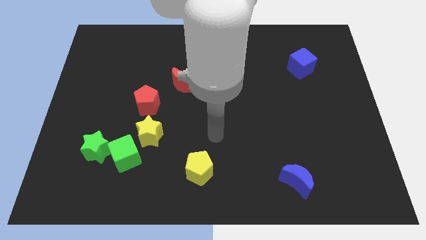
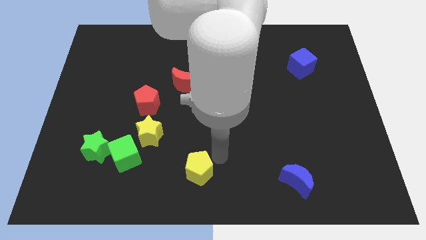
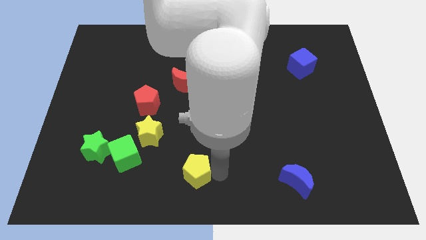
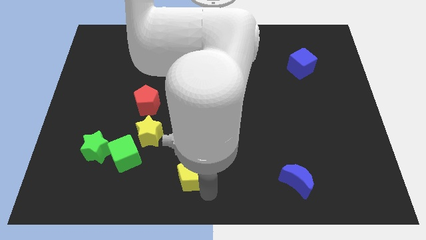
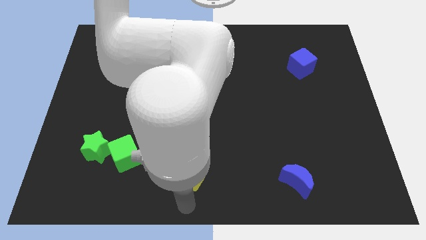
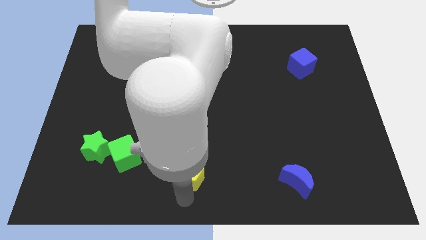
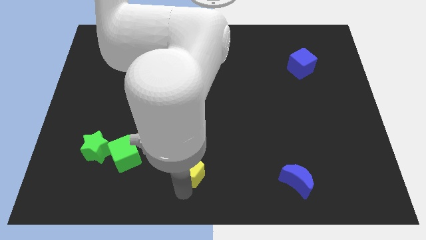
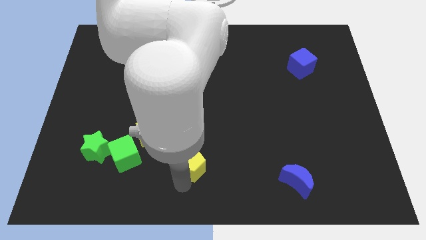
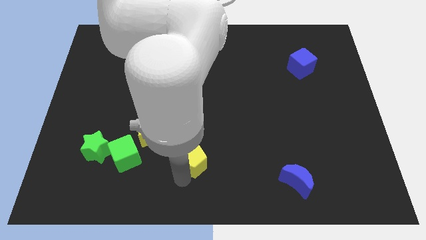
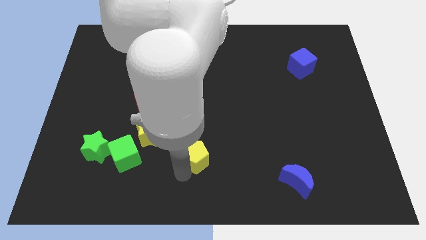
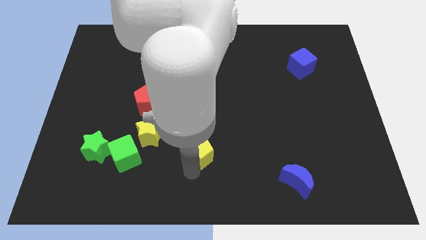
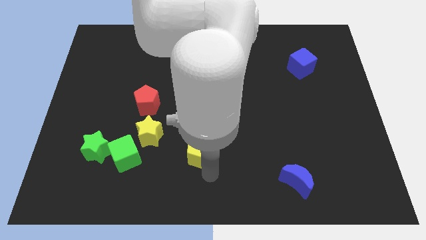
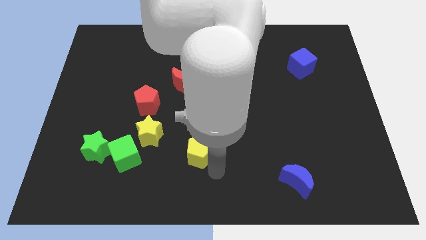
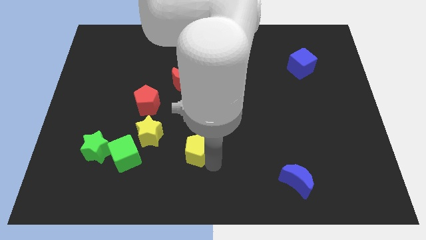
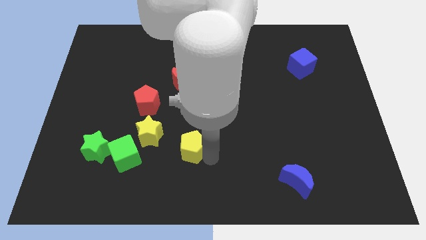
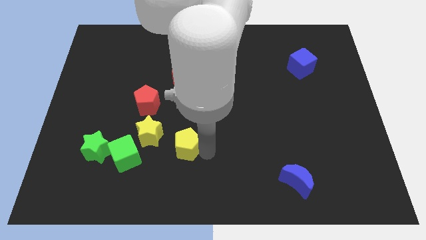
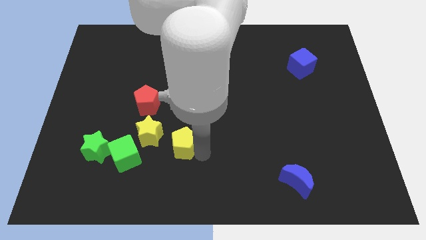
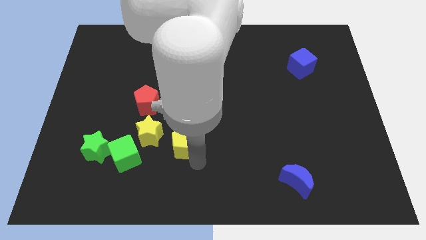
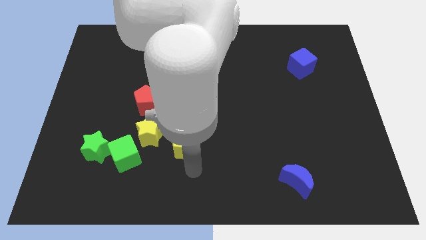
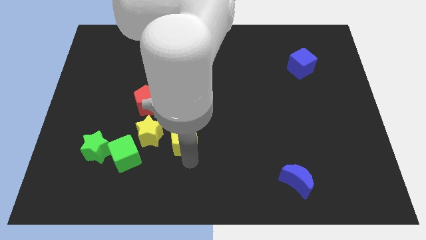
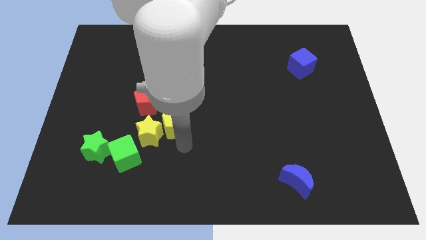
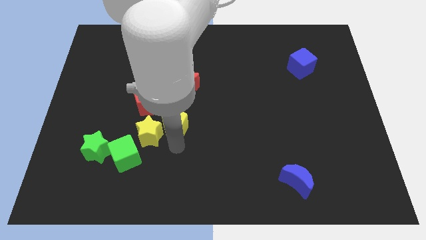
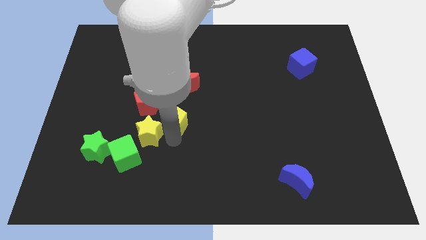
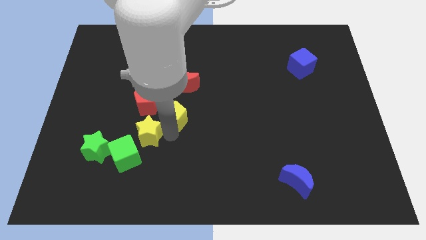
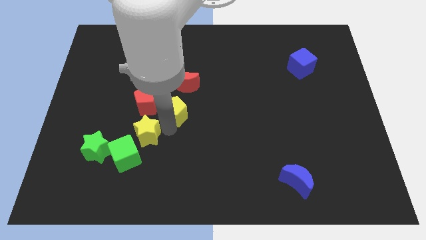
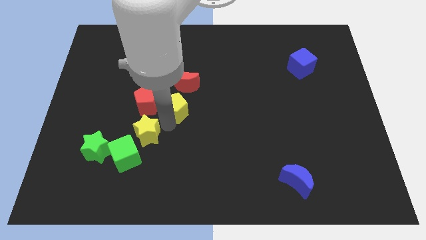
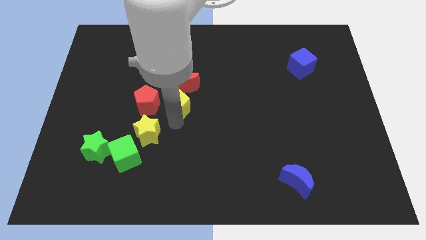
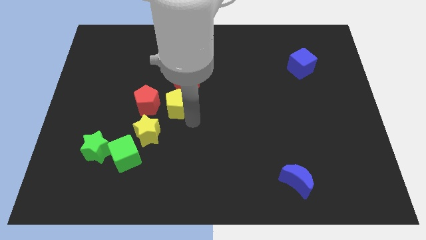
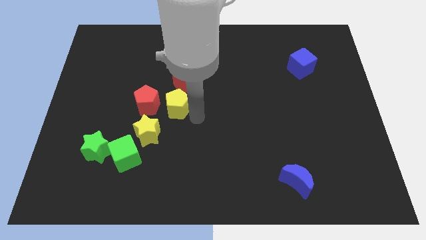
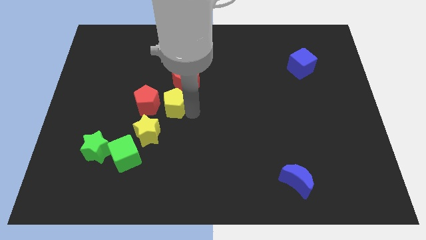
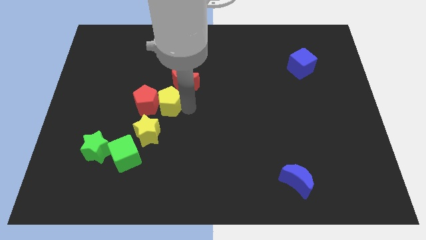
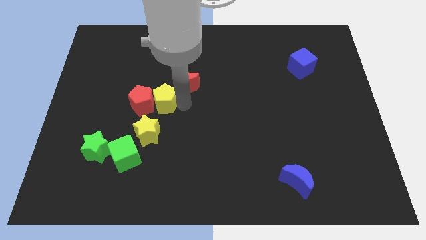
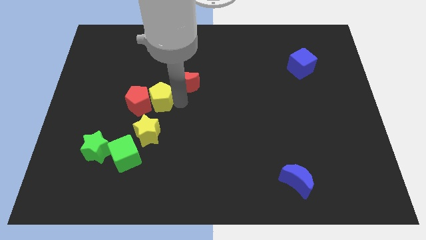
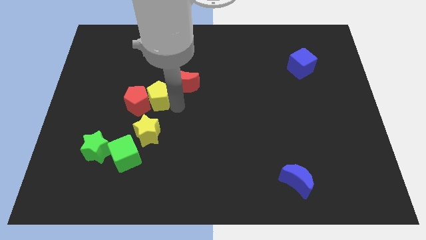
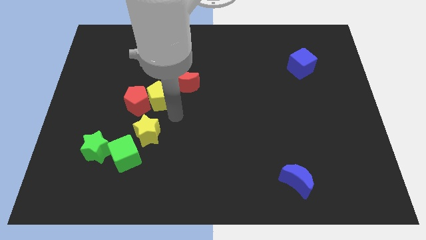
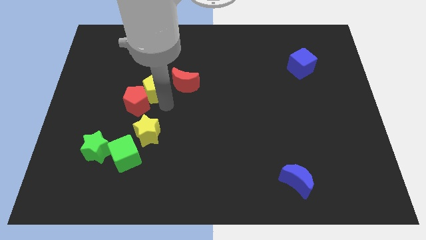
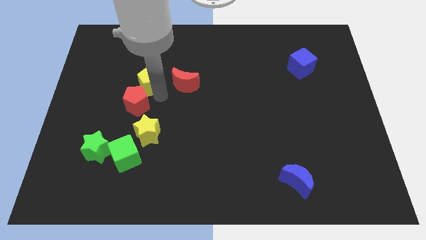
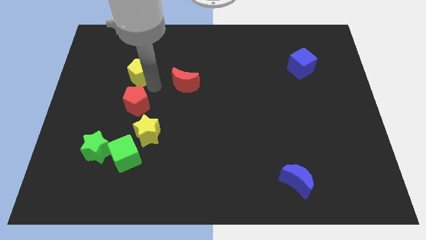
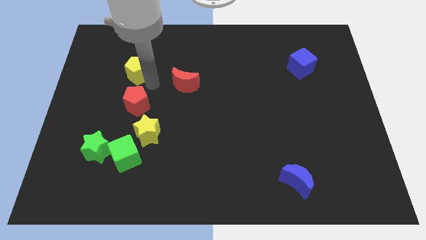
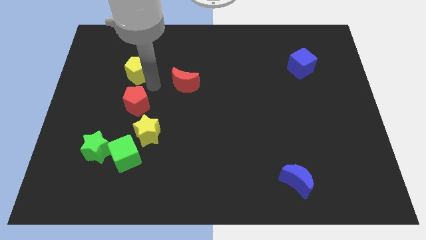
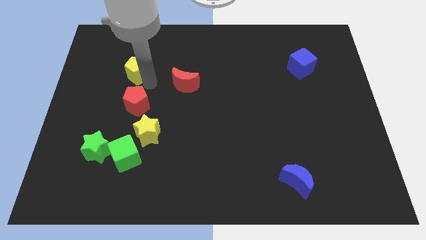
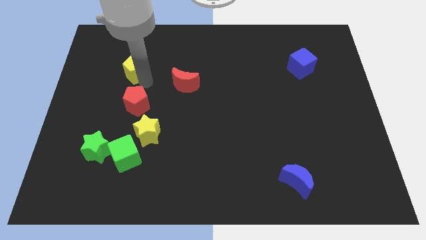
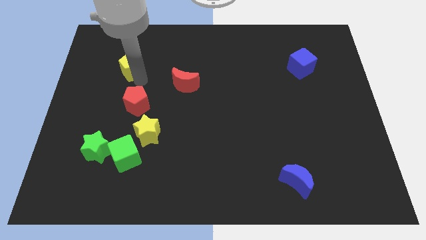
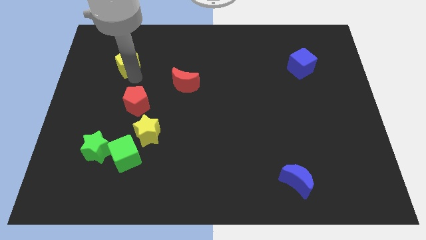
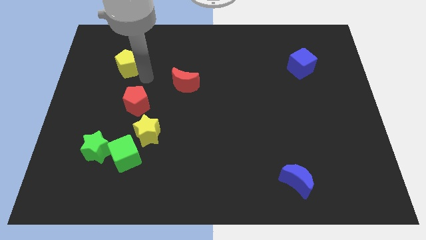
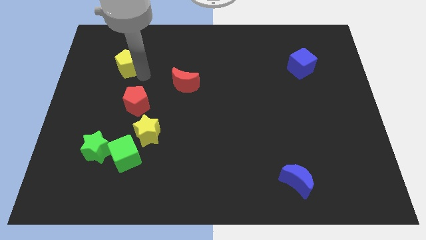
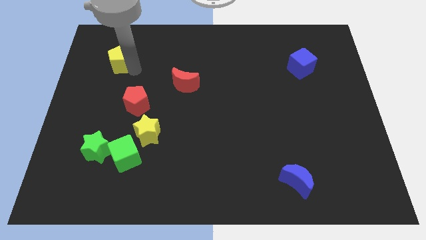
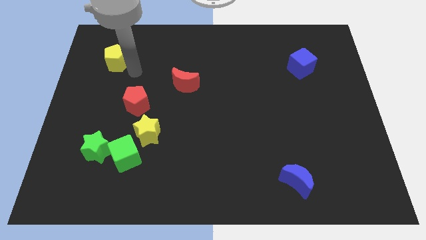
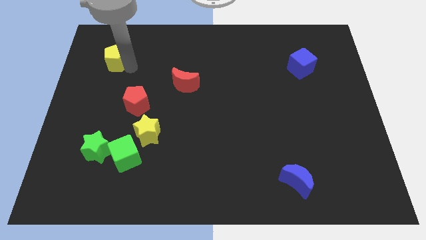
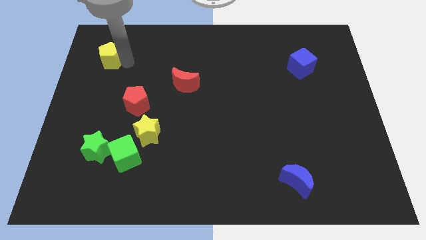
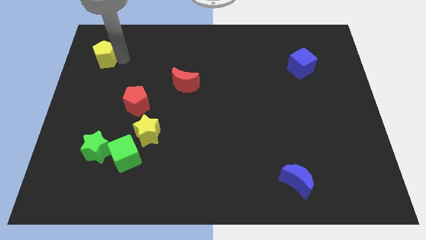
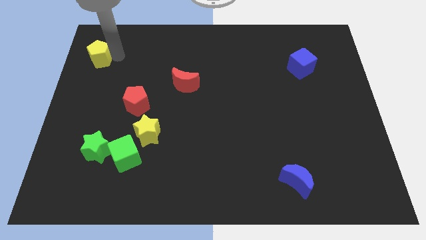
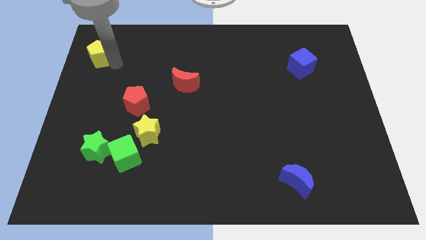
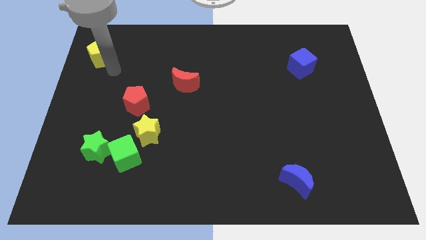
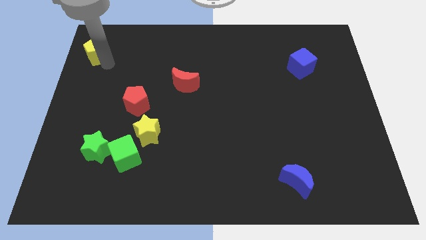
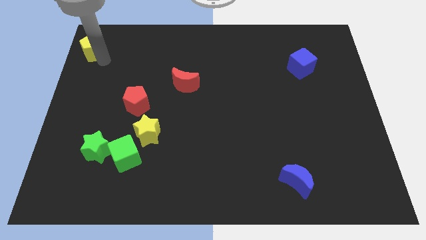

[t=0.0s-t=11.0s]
move the yellow pentagon to the top left of the board

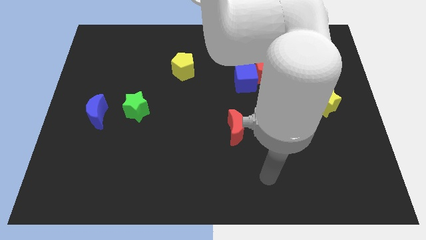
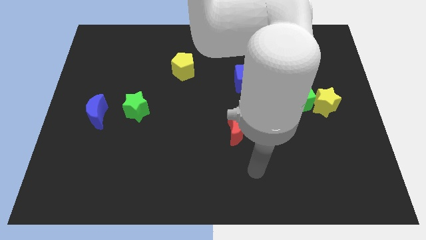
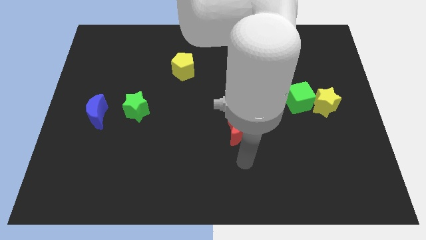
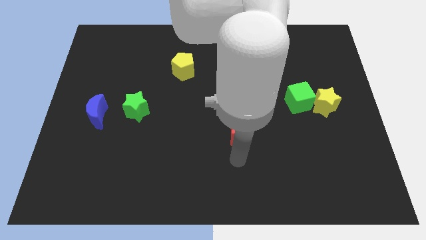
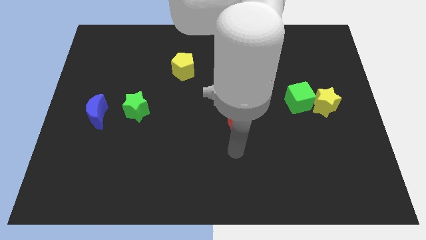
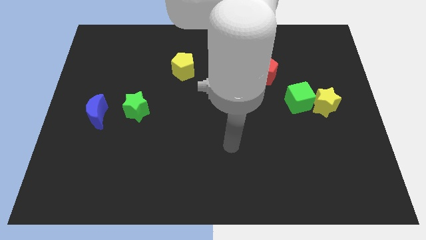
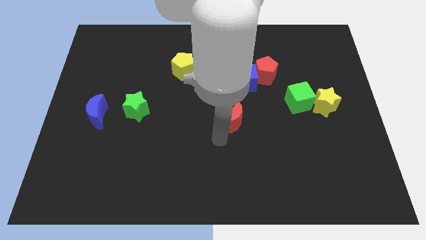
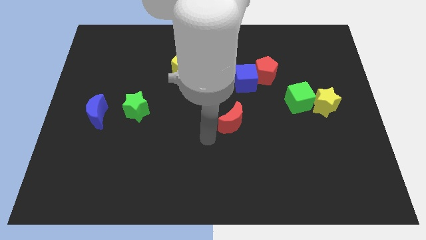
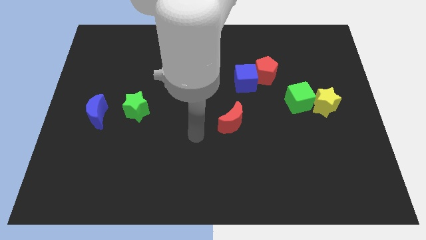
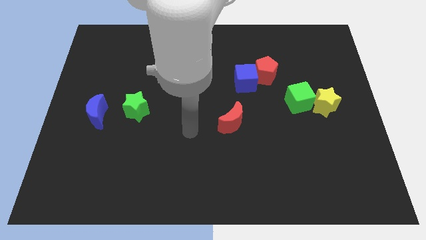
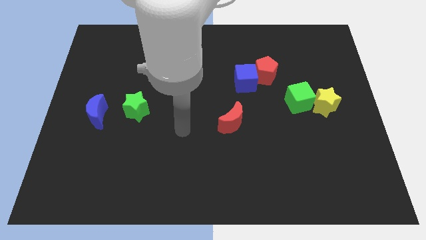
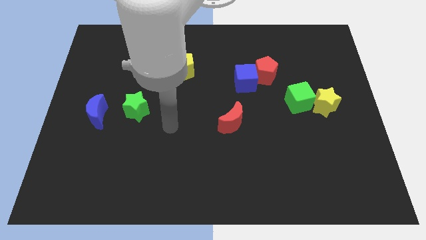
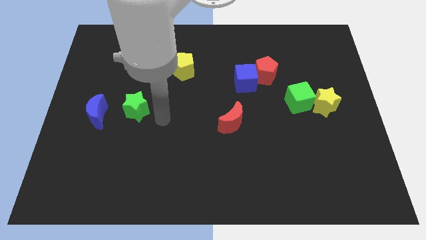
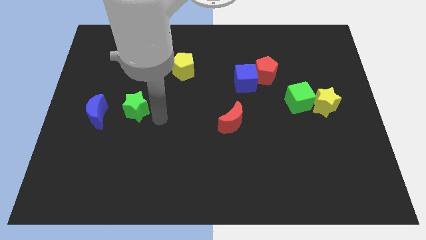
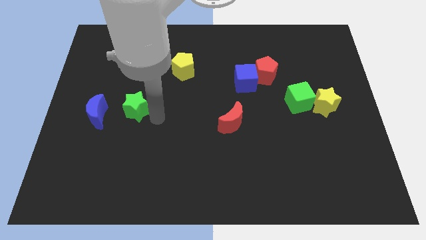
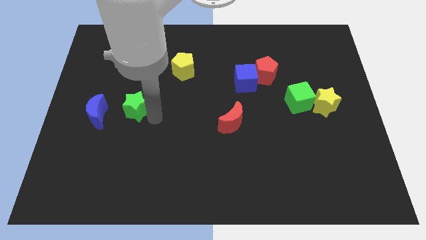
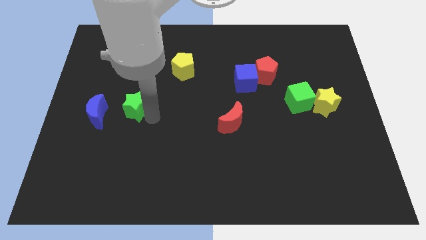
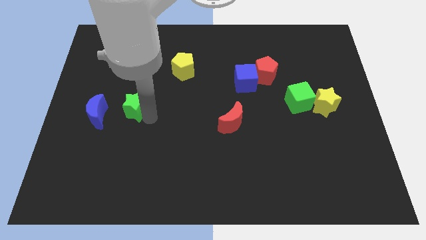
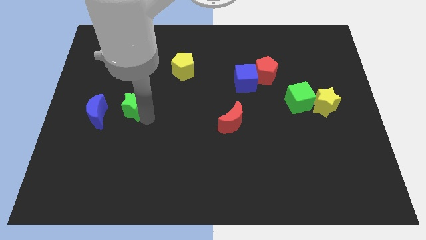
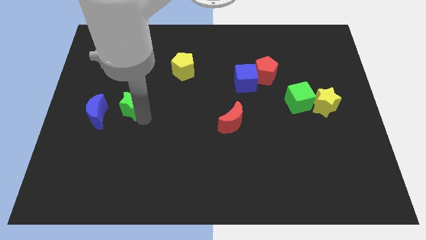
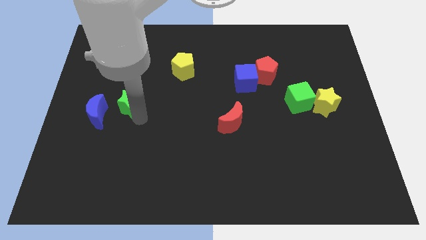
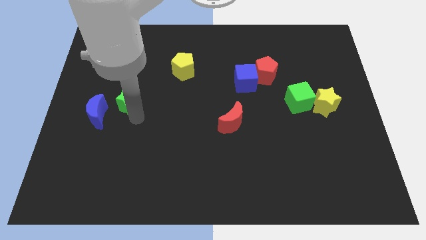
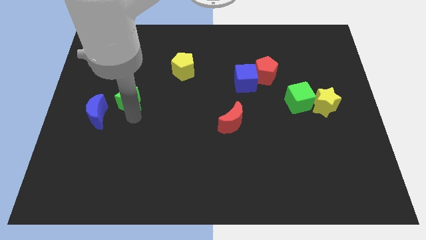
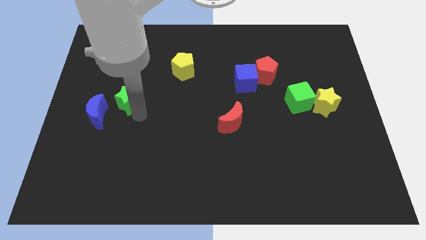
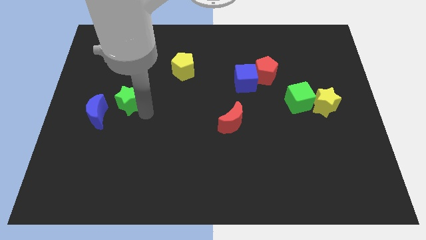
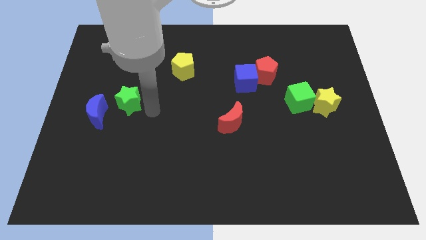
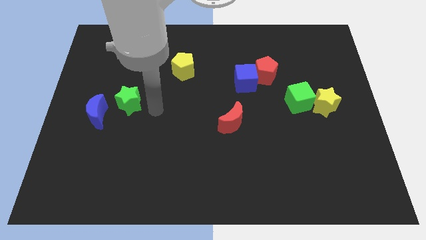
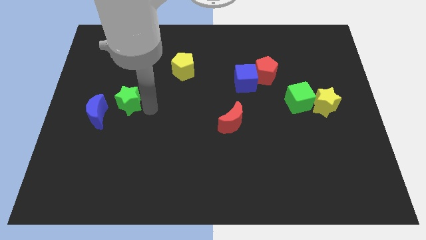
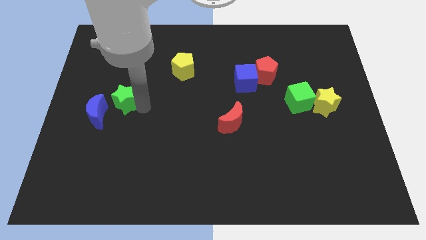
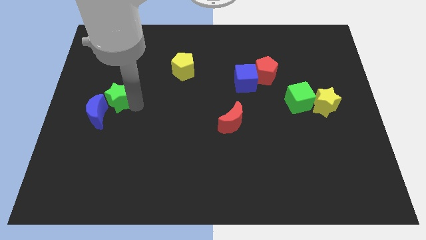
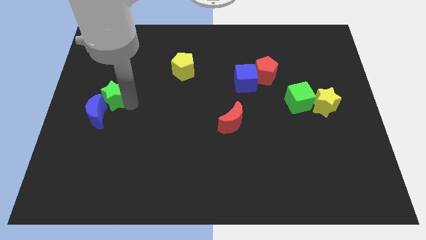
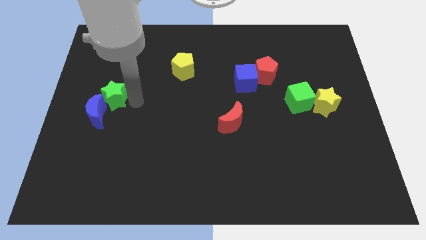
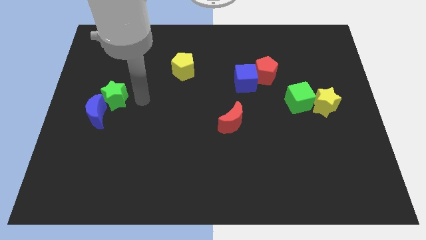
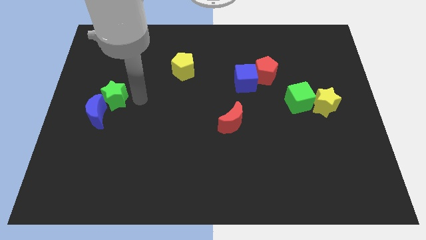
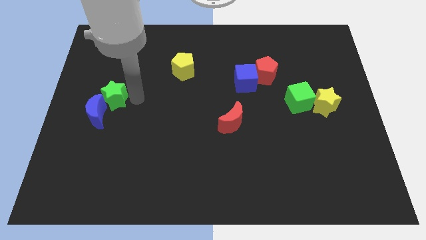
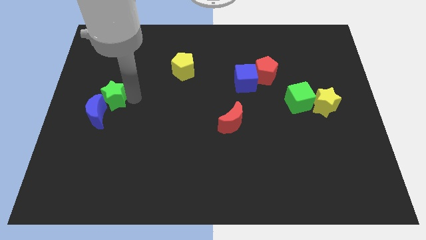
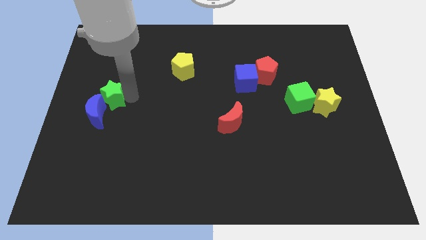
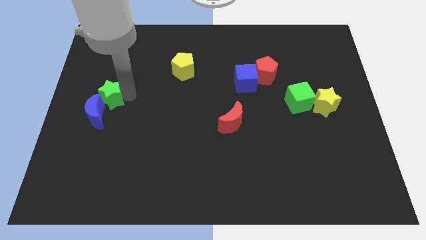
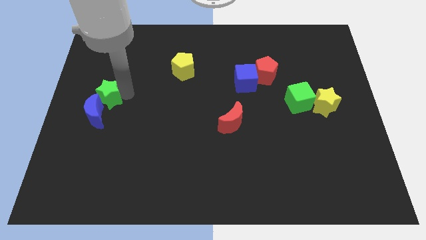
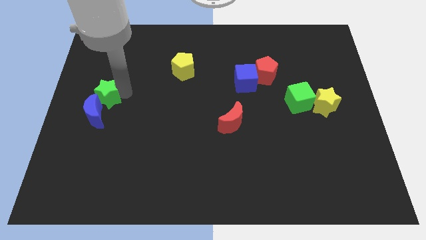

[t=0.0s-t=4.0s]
slide the green star to the left side
